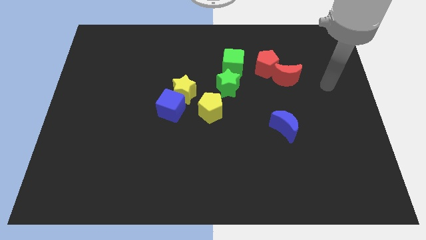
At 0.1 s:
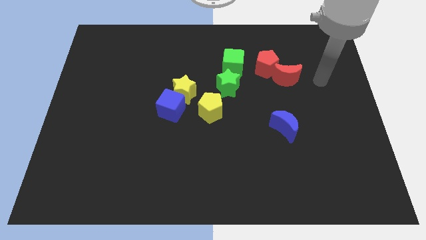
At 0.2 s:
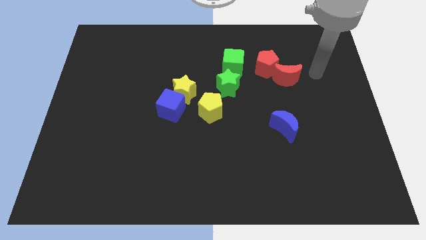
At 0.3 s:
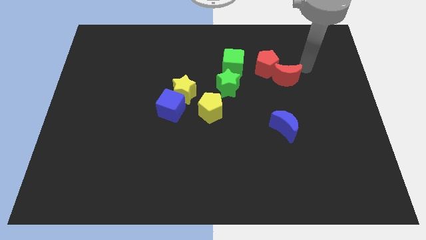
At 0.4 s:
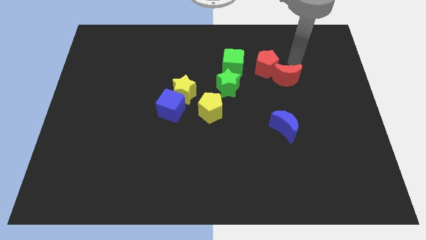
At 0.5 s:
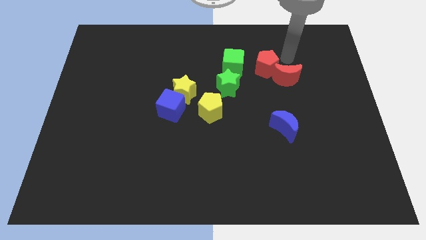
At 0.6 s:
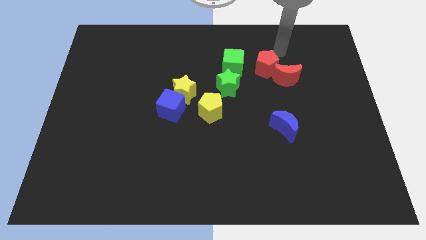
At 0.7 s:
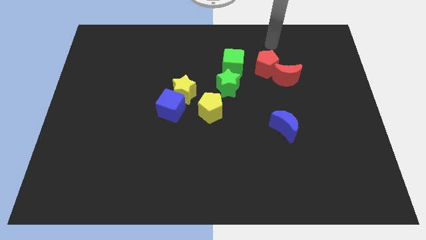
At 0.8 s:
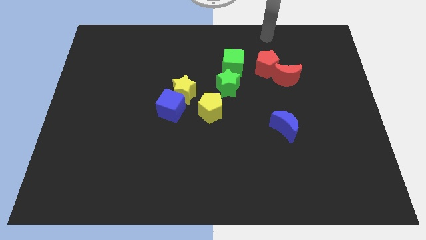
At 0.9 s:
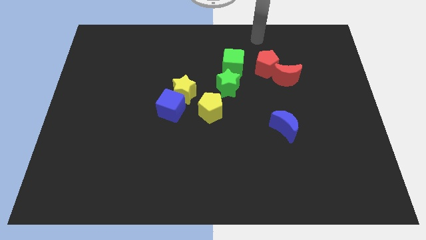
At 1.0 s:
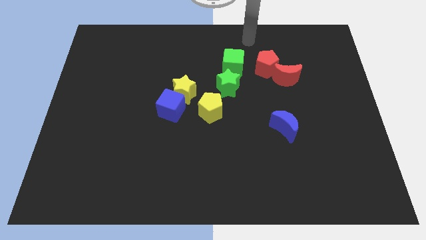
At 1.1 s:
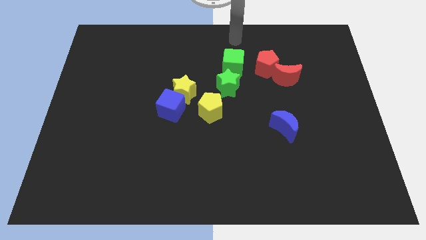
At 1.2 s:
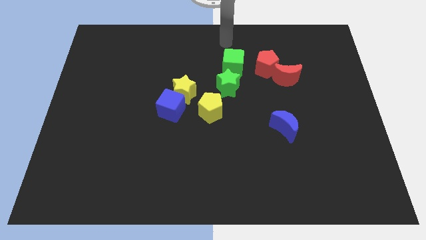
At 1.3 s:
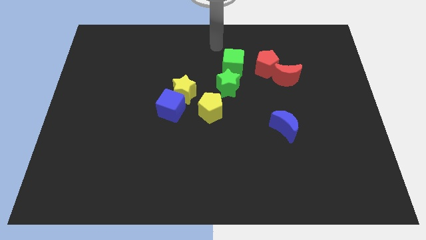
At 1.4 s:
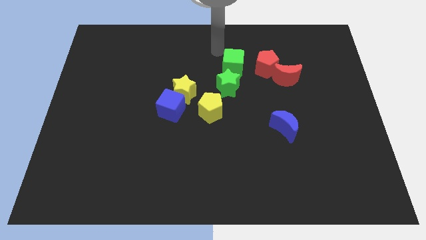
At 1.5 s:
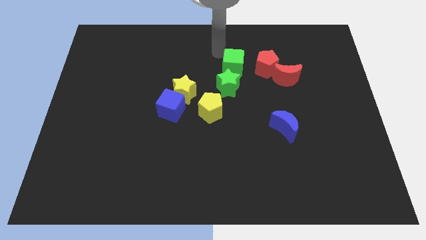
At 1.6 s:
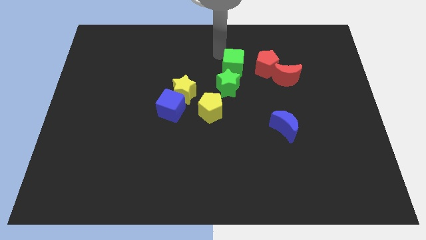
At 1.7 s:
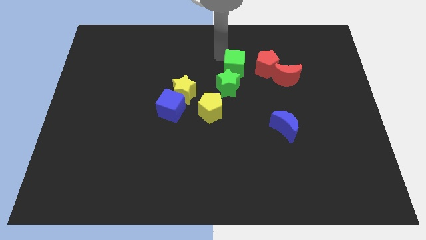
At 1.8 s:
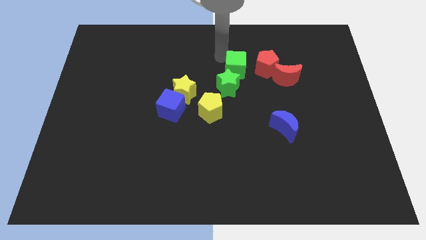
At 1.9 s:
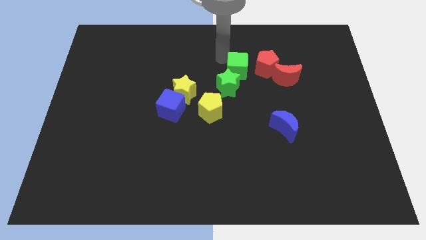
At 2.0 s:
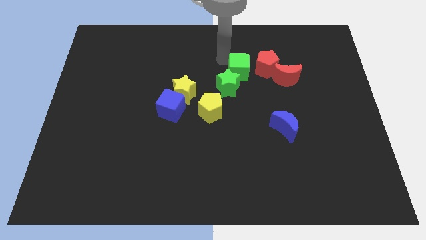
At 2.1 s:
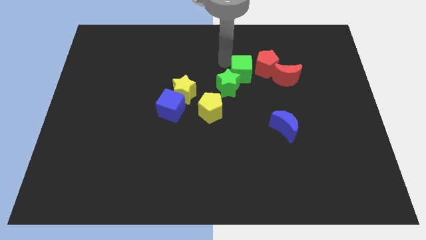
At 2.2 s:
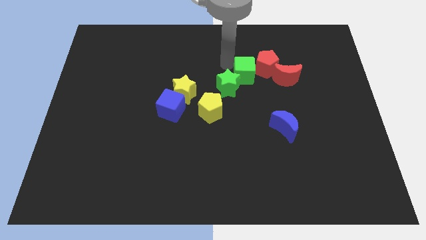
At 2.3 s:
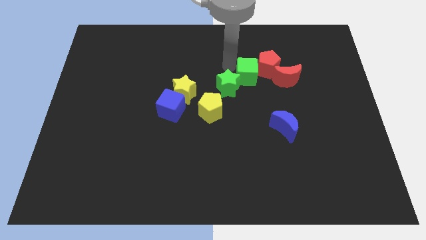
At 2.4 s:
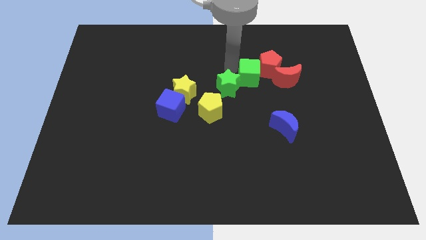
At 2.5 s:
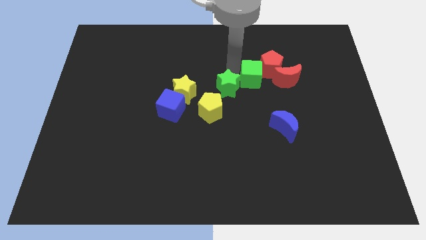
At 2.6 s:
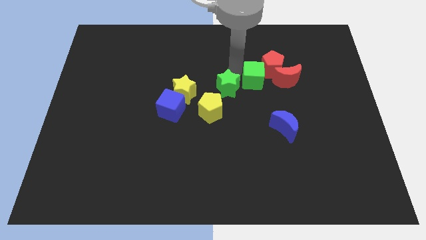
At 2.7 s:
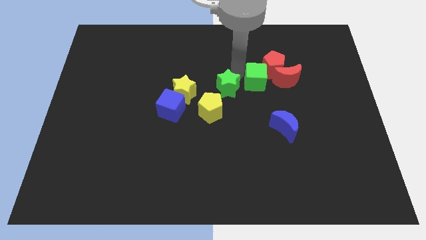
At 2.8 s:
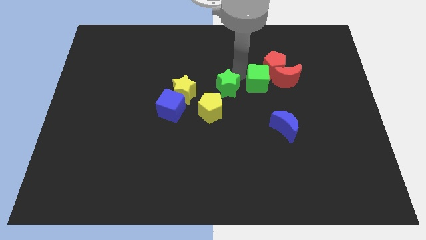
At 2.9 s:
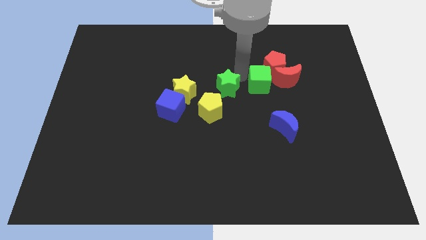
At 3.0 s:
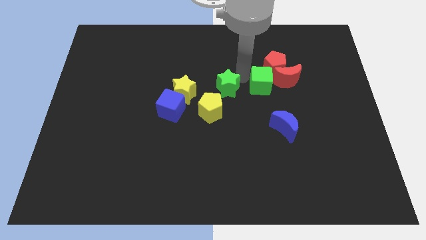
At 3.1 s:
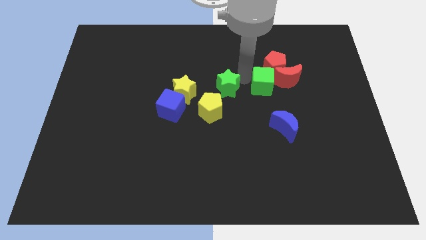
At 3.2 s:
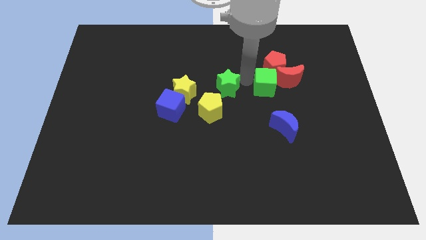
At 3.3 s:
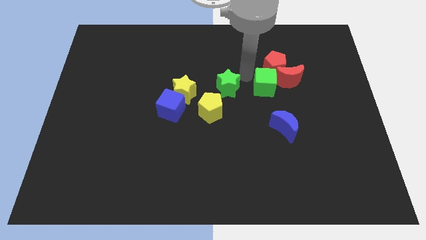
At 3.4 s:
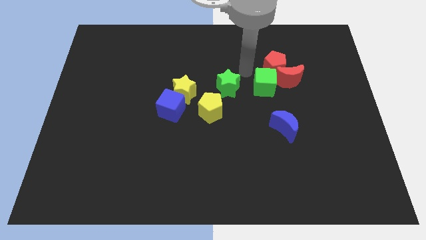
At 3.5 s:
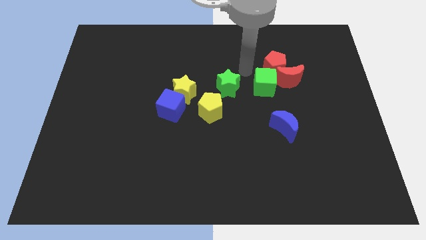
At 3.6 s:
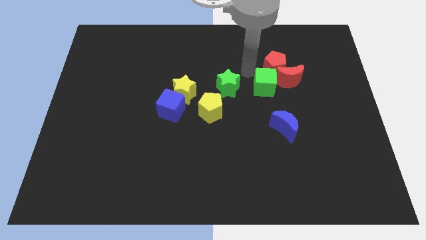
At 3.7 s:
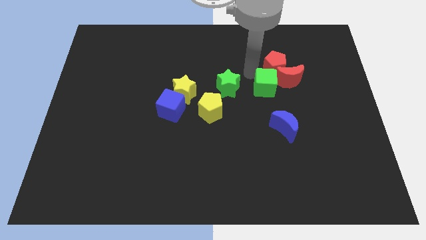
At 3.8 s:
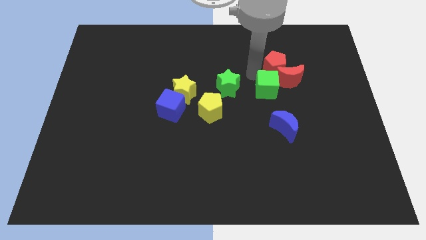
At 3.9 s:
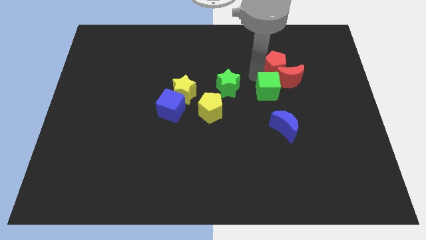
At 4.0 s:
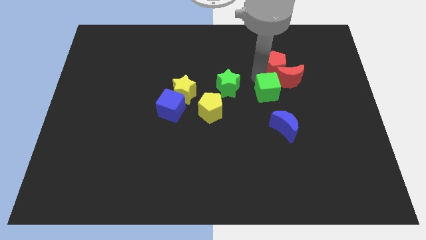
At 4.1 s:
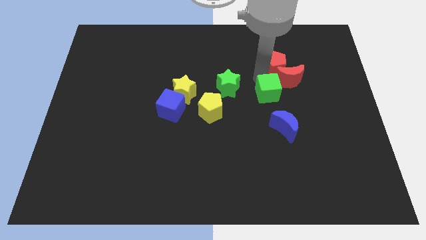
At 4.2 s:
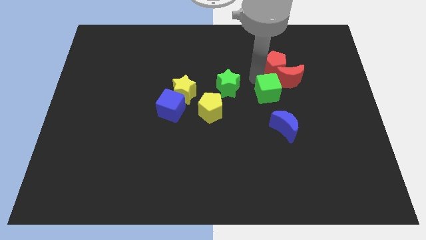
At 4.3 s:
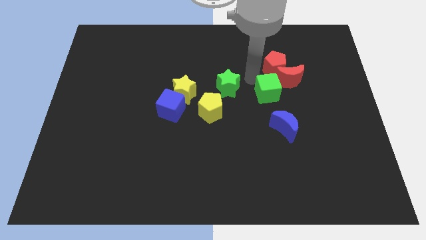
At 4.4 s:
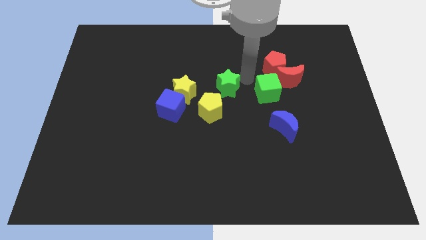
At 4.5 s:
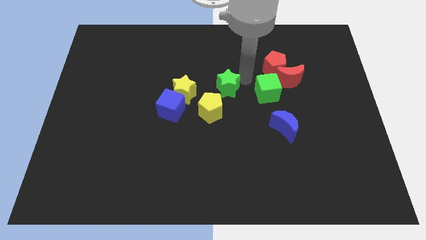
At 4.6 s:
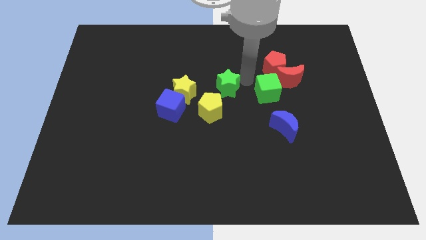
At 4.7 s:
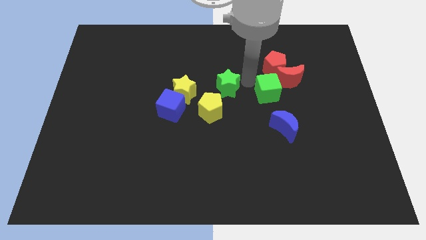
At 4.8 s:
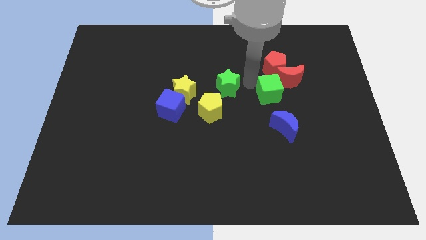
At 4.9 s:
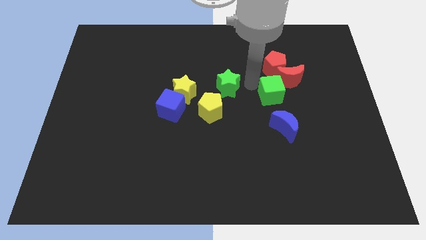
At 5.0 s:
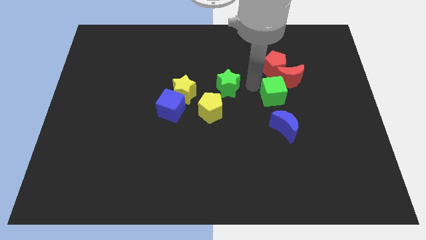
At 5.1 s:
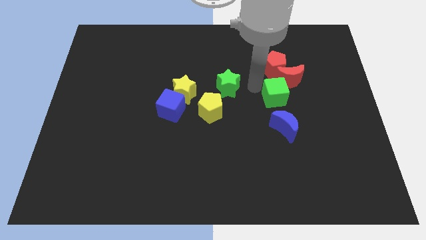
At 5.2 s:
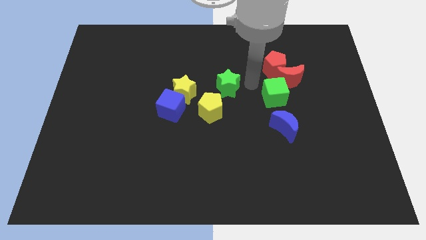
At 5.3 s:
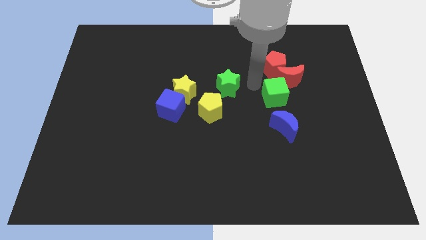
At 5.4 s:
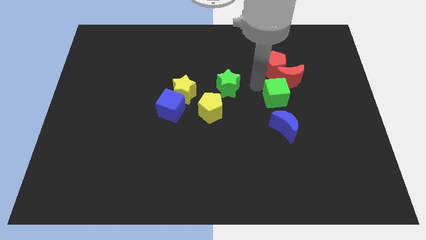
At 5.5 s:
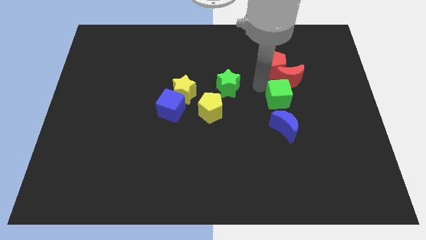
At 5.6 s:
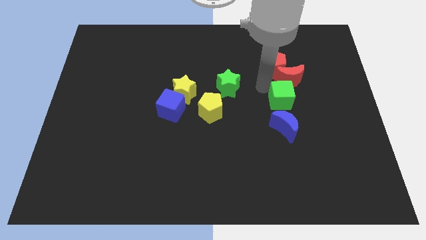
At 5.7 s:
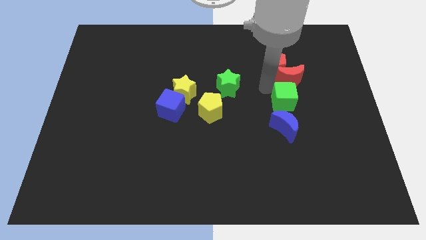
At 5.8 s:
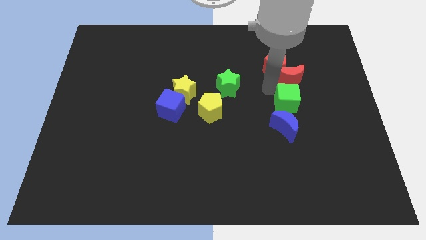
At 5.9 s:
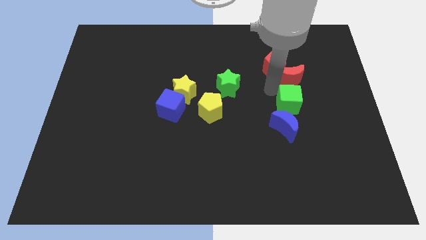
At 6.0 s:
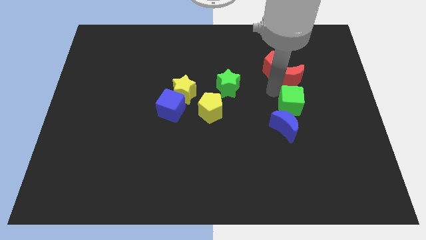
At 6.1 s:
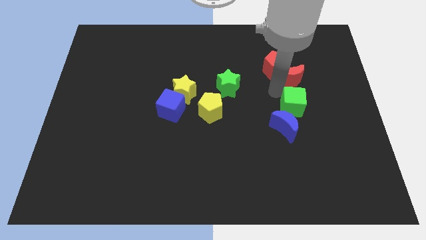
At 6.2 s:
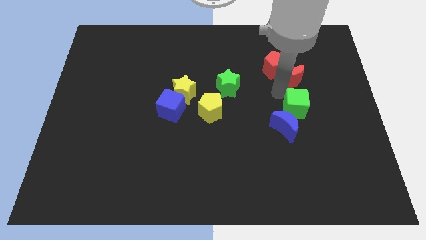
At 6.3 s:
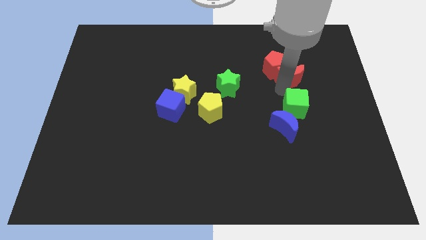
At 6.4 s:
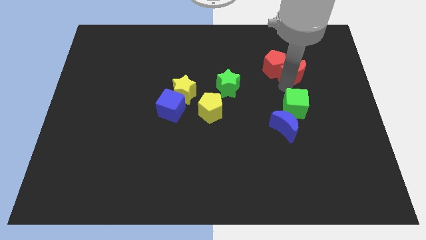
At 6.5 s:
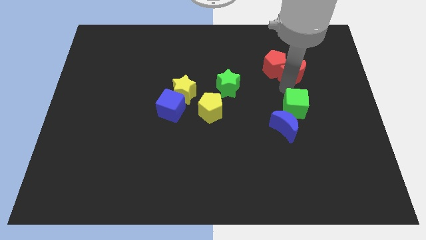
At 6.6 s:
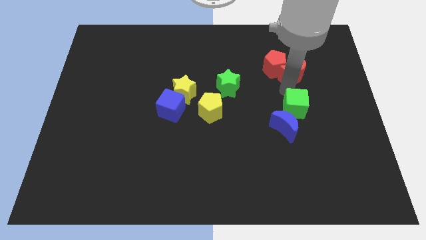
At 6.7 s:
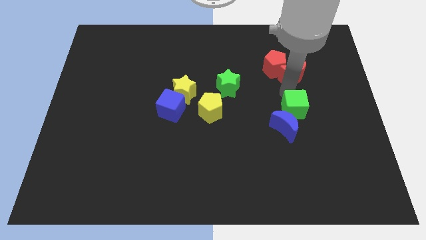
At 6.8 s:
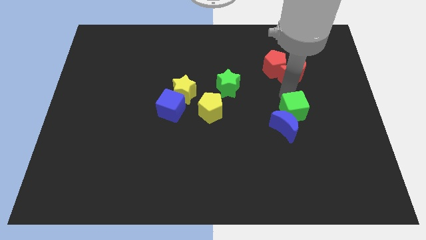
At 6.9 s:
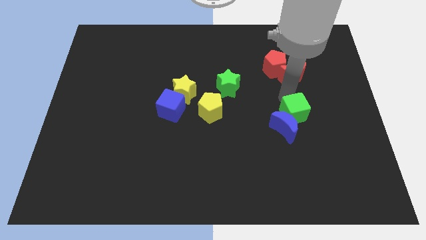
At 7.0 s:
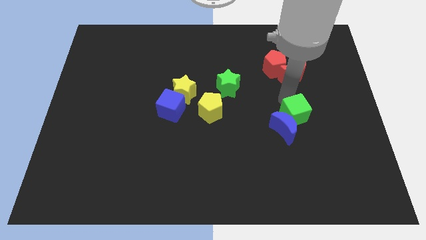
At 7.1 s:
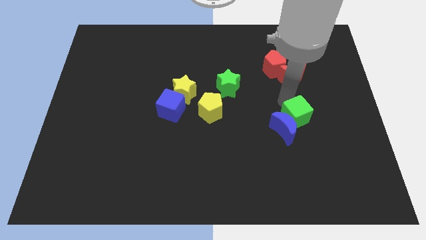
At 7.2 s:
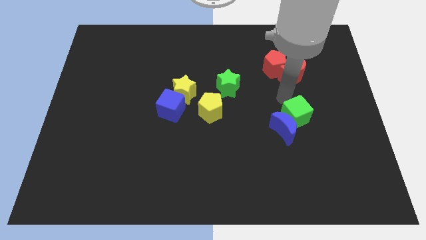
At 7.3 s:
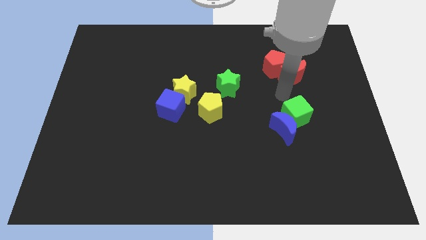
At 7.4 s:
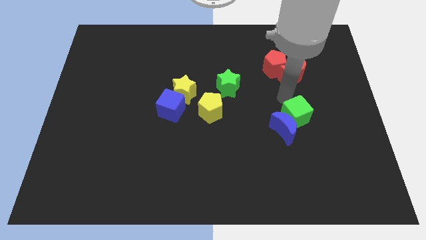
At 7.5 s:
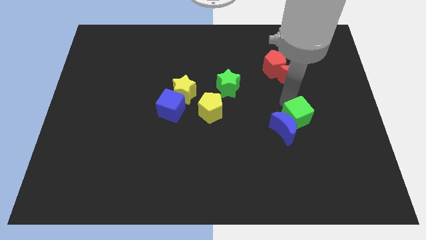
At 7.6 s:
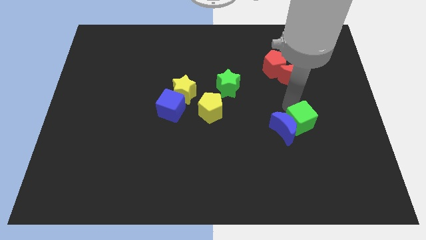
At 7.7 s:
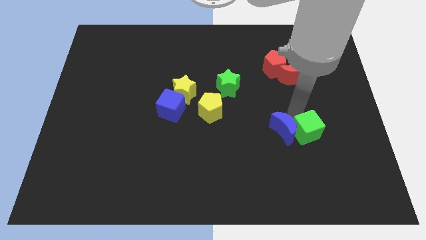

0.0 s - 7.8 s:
push the green cube diagonally down and to the right of the blue moon
